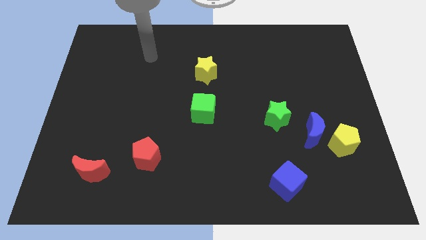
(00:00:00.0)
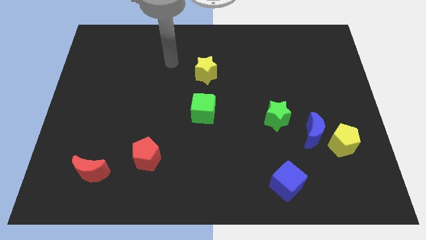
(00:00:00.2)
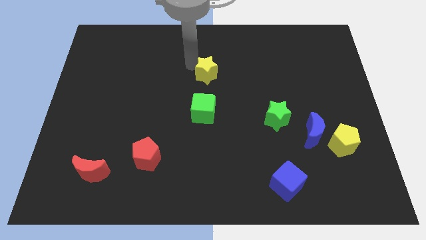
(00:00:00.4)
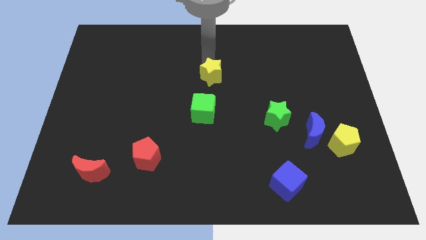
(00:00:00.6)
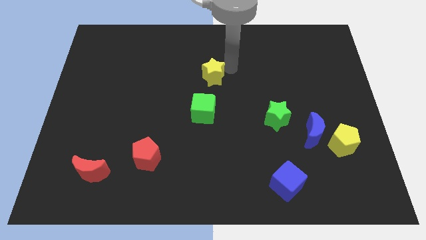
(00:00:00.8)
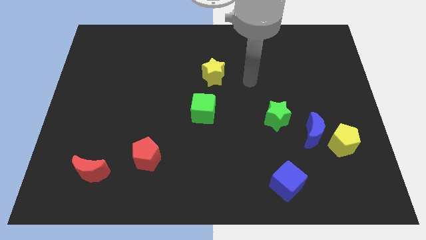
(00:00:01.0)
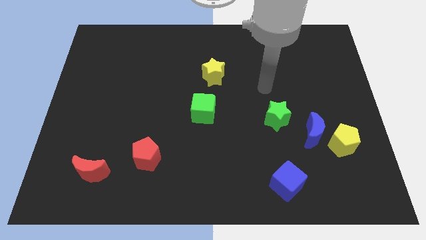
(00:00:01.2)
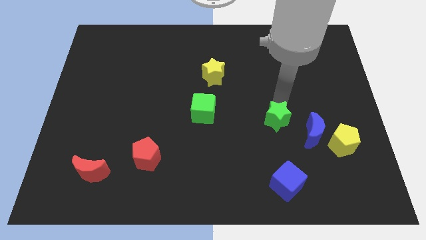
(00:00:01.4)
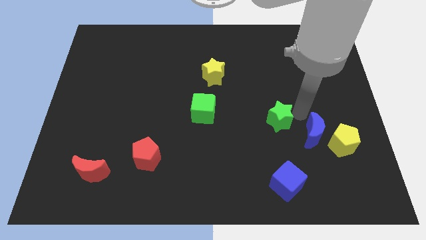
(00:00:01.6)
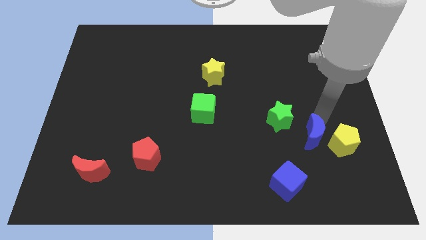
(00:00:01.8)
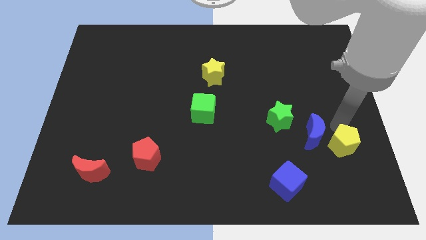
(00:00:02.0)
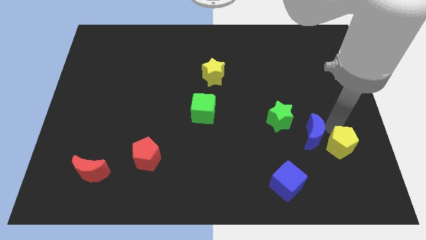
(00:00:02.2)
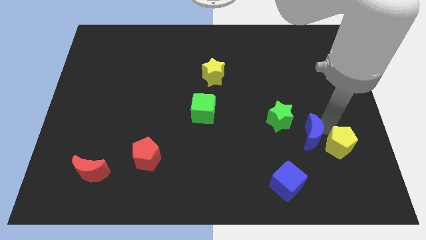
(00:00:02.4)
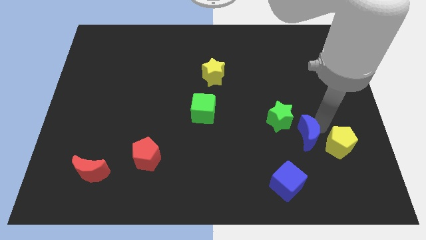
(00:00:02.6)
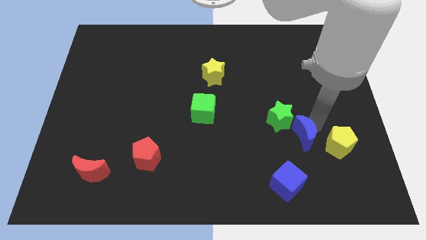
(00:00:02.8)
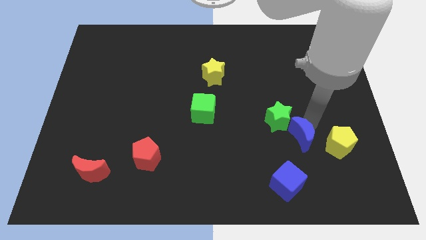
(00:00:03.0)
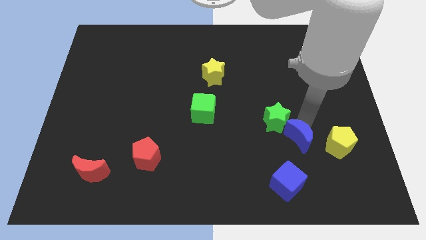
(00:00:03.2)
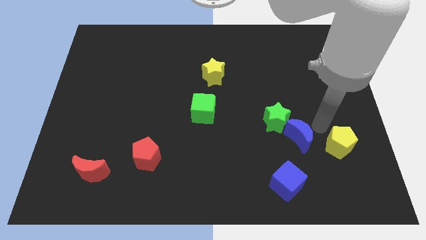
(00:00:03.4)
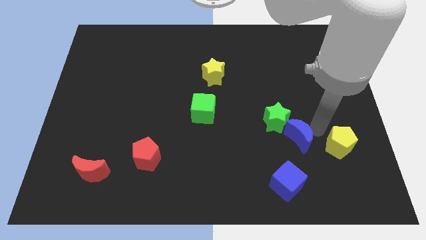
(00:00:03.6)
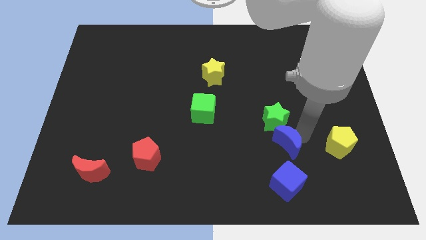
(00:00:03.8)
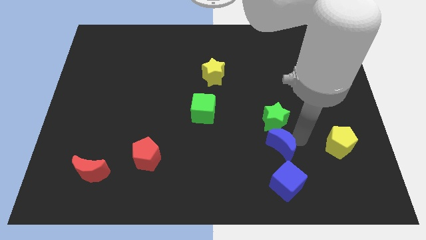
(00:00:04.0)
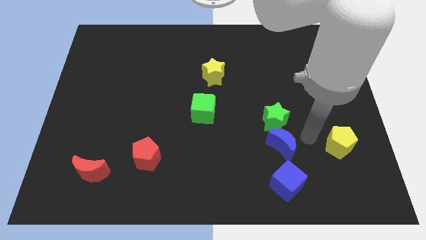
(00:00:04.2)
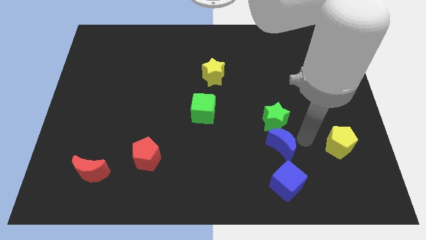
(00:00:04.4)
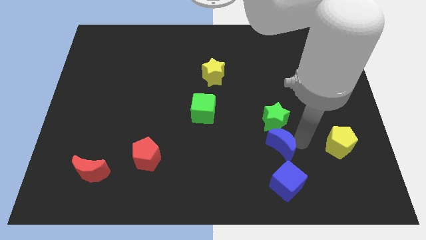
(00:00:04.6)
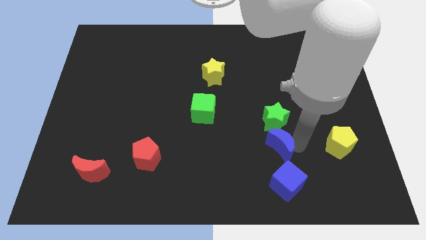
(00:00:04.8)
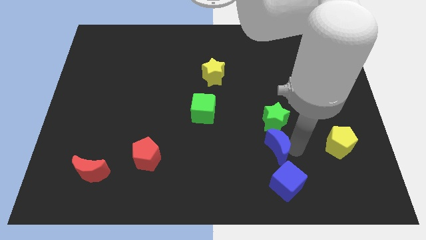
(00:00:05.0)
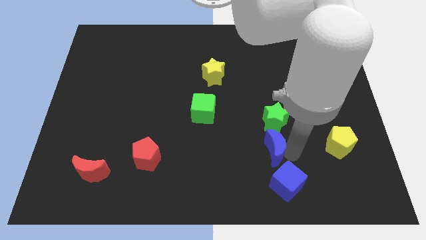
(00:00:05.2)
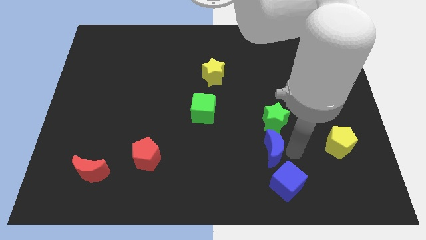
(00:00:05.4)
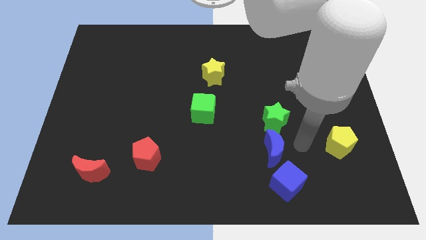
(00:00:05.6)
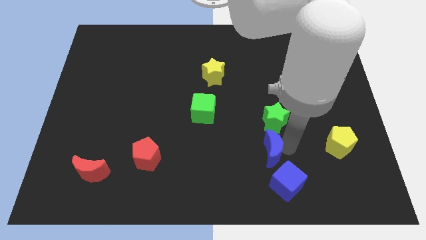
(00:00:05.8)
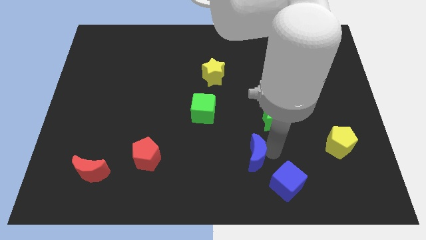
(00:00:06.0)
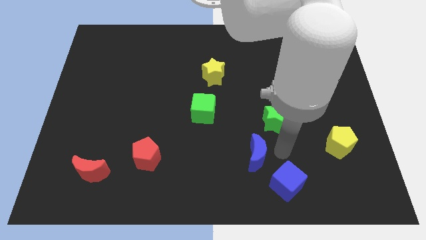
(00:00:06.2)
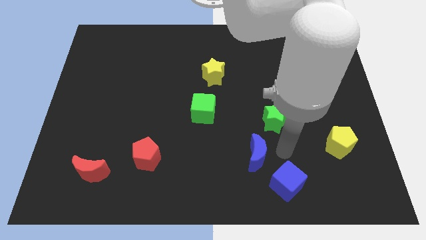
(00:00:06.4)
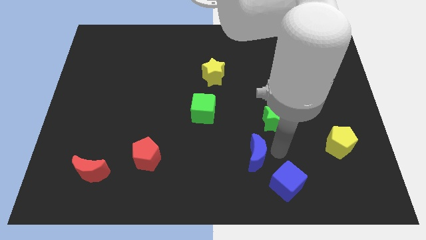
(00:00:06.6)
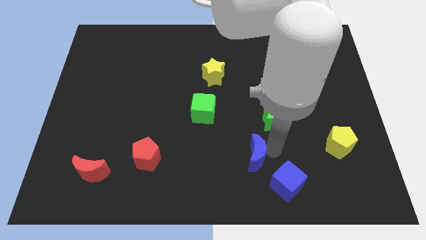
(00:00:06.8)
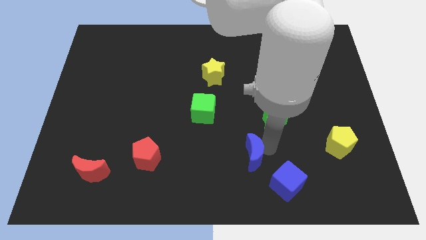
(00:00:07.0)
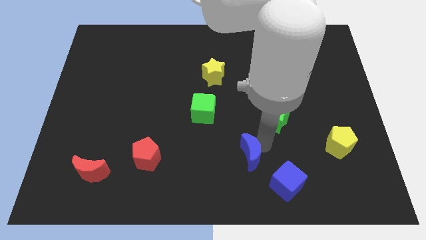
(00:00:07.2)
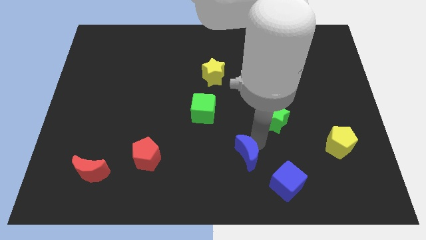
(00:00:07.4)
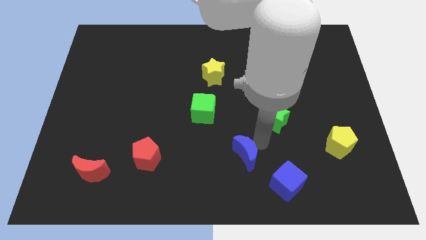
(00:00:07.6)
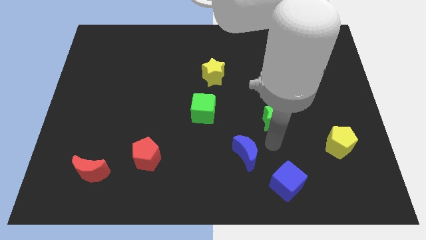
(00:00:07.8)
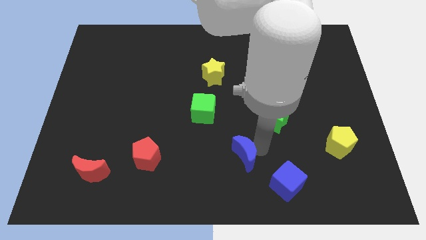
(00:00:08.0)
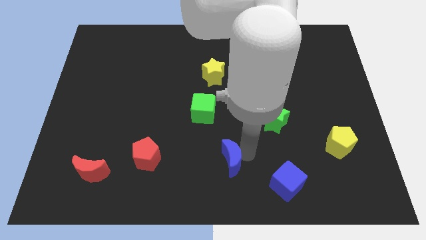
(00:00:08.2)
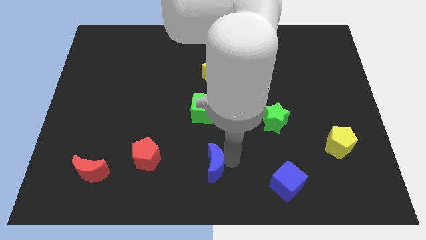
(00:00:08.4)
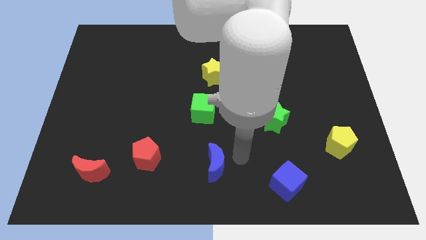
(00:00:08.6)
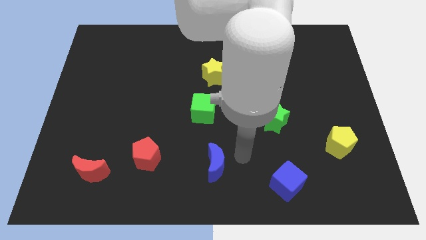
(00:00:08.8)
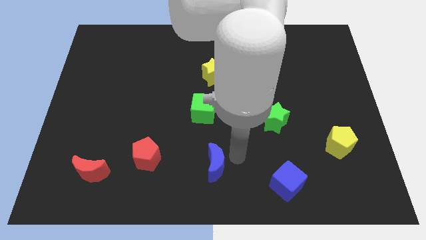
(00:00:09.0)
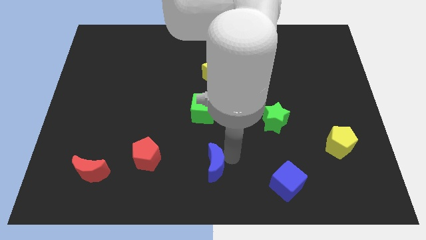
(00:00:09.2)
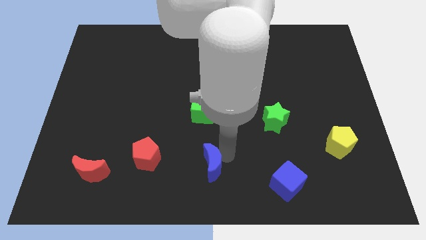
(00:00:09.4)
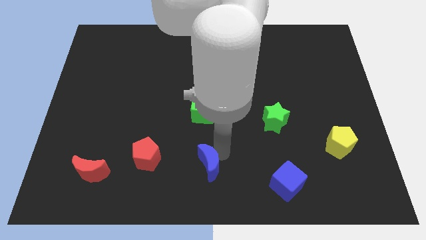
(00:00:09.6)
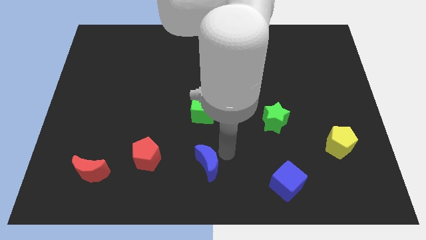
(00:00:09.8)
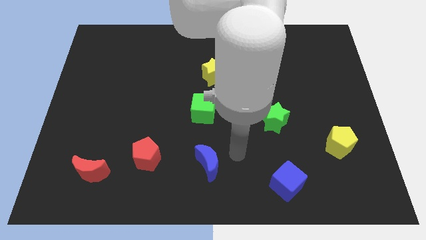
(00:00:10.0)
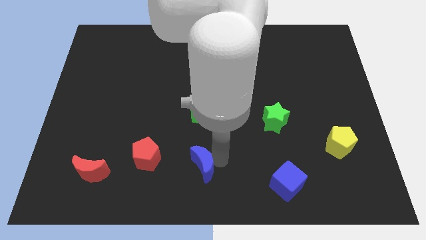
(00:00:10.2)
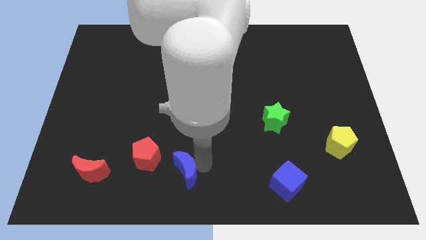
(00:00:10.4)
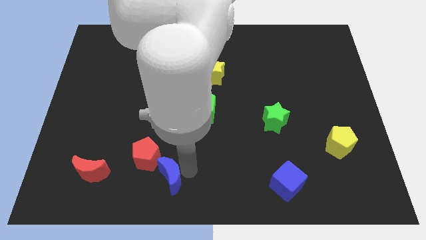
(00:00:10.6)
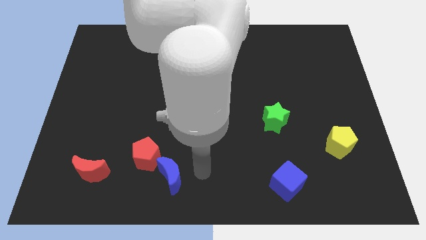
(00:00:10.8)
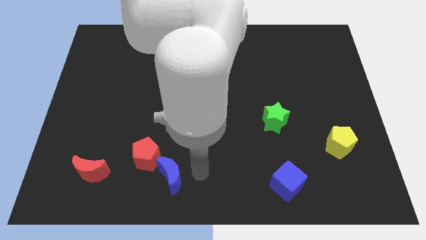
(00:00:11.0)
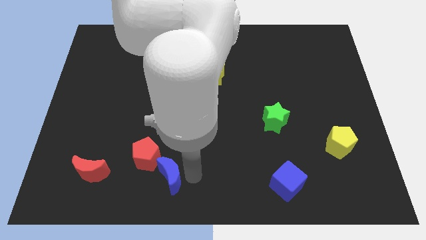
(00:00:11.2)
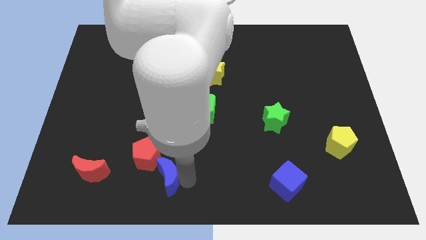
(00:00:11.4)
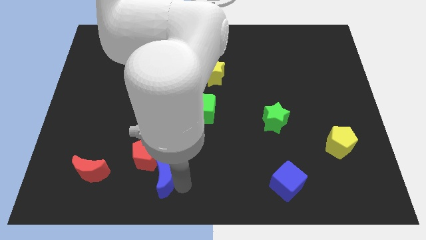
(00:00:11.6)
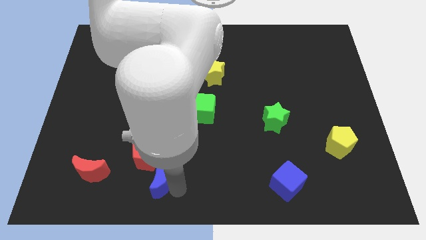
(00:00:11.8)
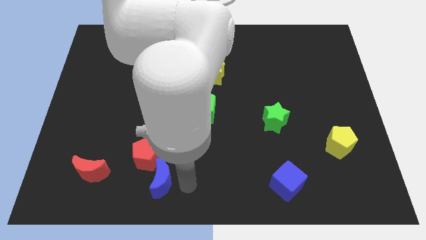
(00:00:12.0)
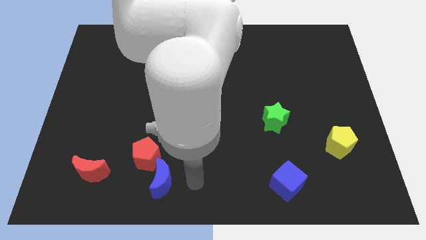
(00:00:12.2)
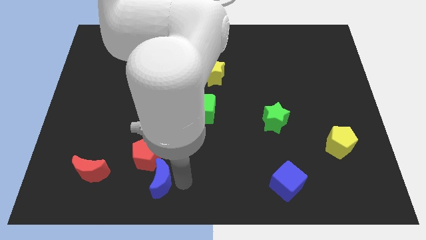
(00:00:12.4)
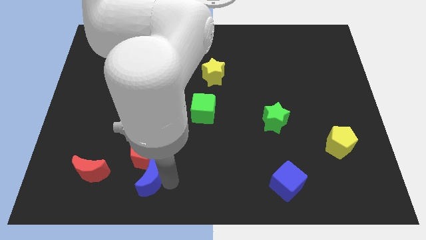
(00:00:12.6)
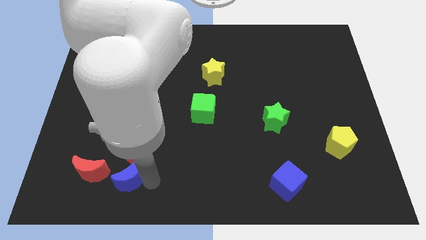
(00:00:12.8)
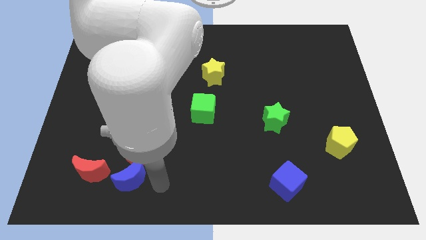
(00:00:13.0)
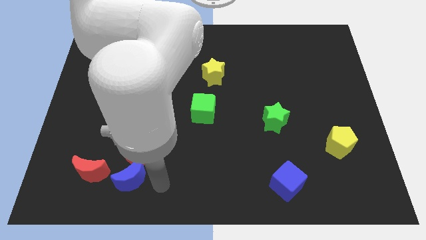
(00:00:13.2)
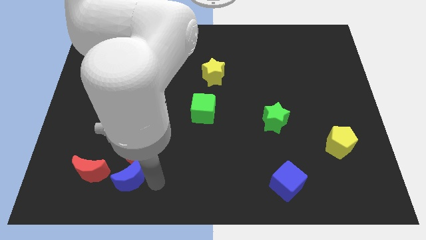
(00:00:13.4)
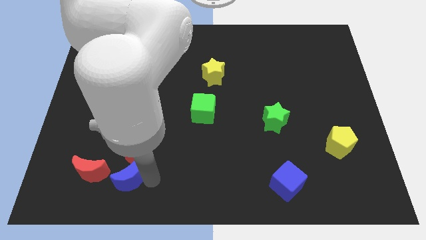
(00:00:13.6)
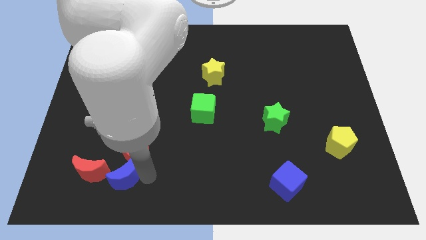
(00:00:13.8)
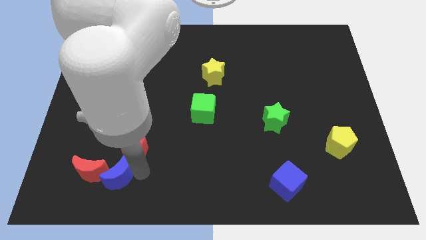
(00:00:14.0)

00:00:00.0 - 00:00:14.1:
push the blue moon next to the red moon
